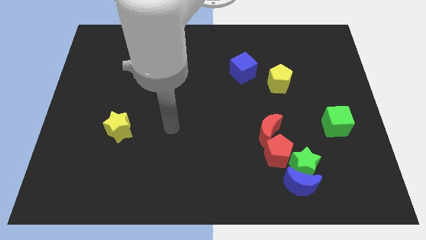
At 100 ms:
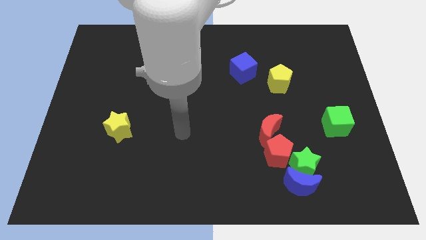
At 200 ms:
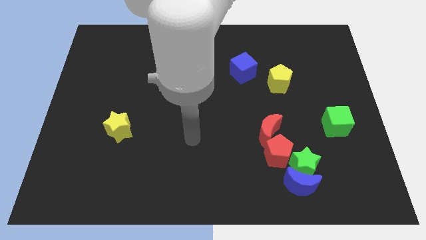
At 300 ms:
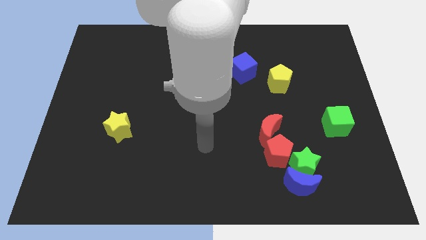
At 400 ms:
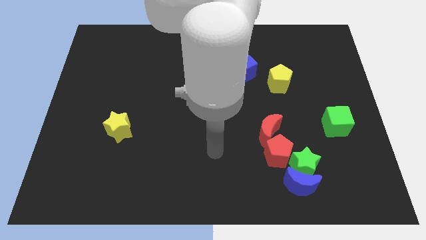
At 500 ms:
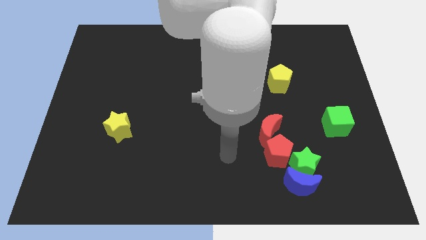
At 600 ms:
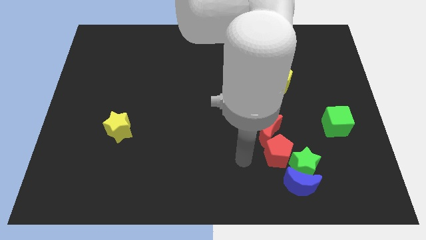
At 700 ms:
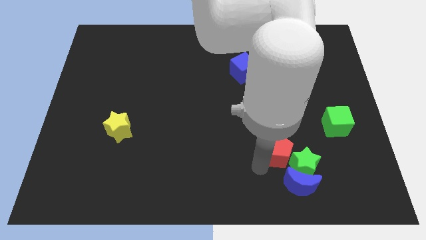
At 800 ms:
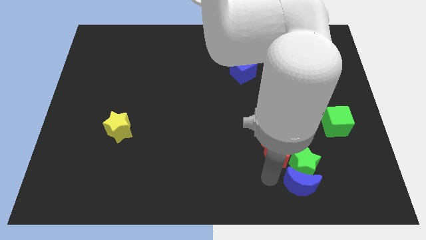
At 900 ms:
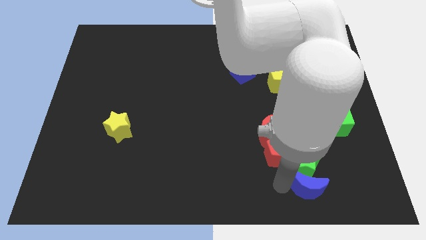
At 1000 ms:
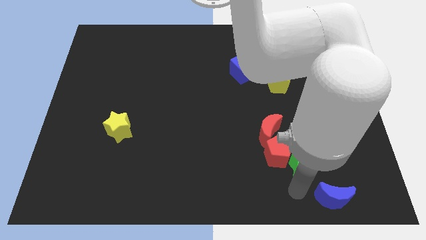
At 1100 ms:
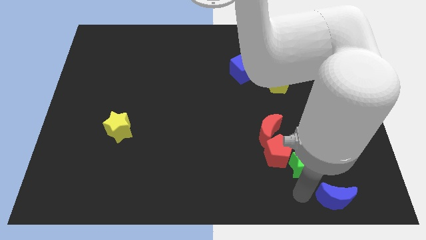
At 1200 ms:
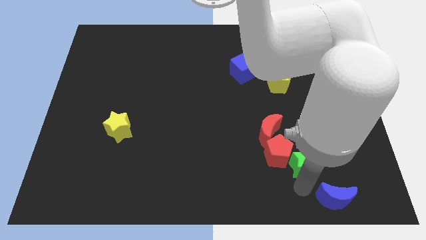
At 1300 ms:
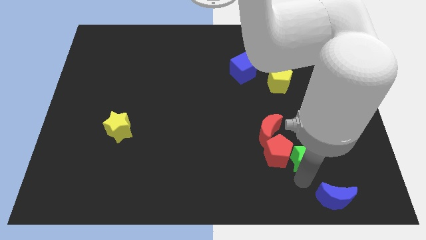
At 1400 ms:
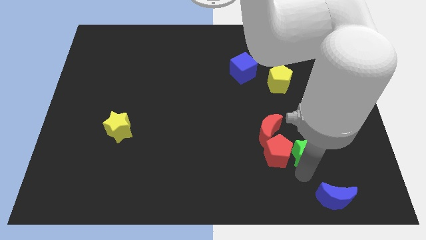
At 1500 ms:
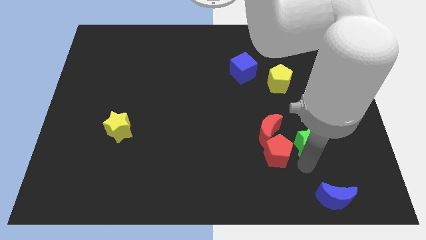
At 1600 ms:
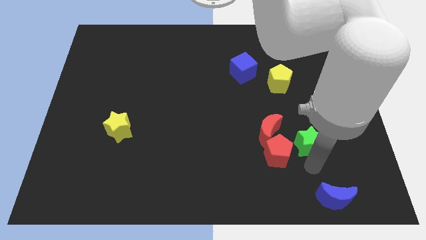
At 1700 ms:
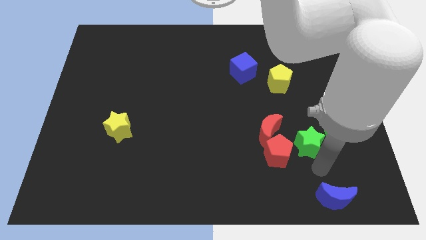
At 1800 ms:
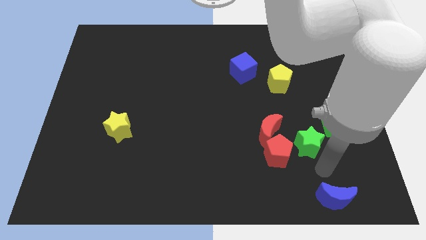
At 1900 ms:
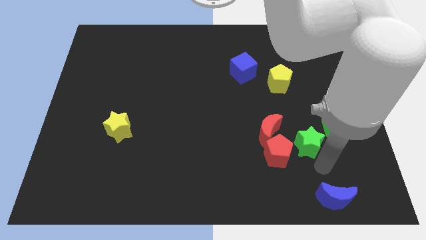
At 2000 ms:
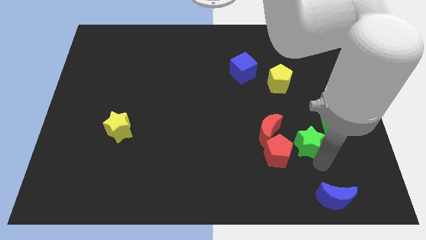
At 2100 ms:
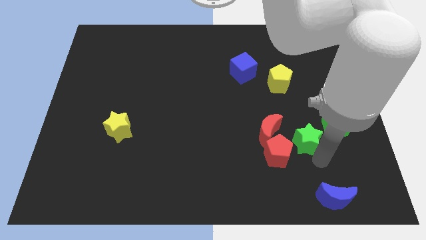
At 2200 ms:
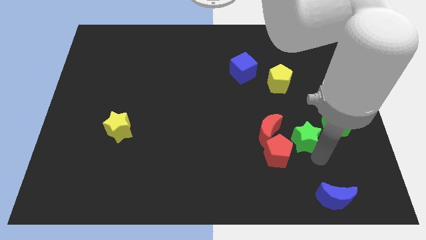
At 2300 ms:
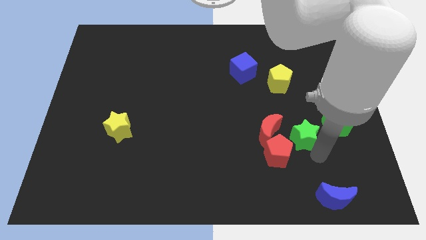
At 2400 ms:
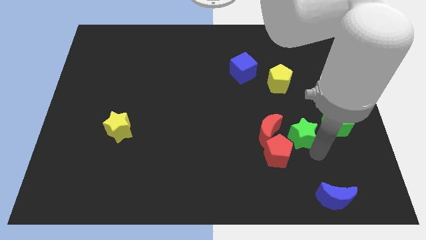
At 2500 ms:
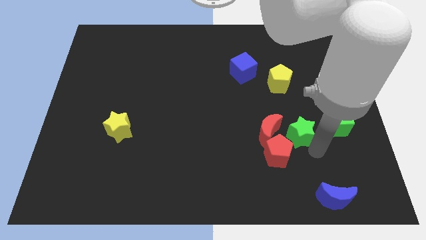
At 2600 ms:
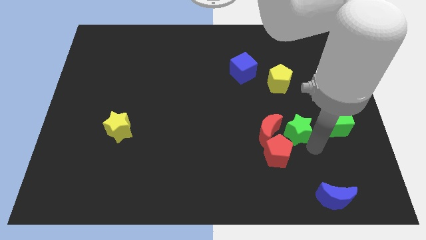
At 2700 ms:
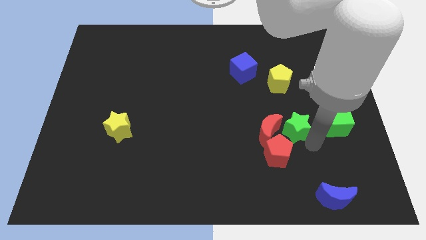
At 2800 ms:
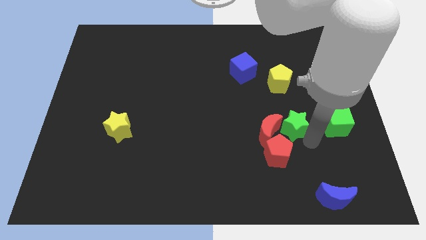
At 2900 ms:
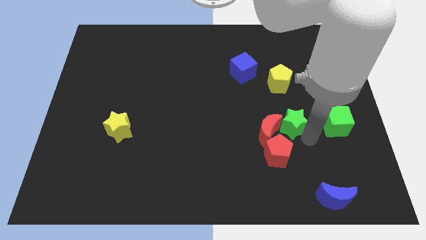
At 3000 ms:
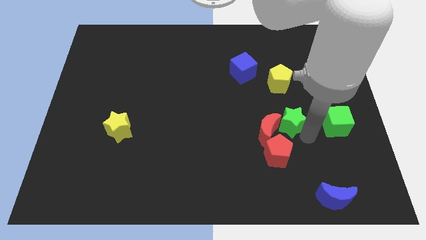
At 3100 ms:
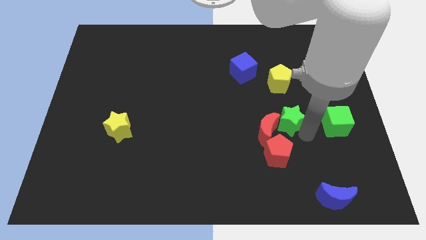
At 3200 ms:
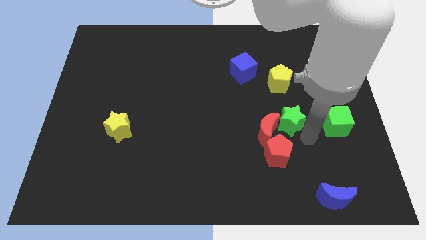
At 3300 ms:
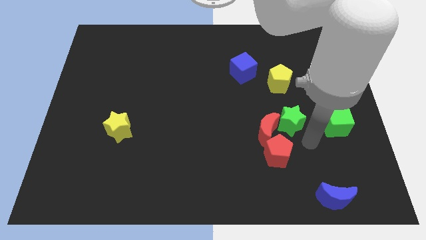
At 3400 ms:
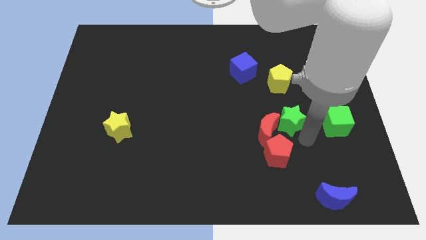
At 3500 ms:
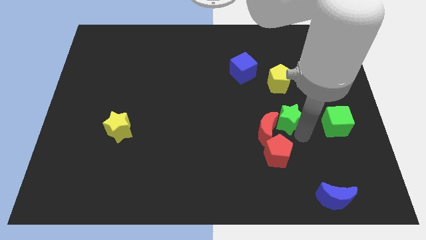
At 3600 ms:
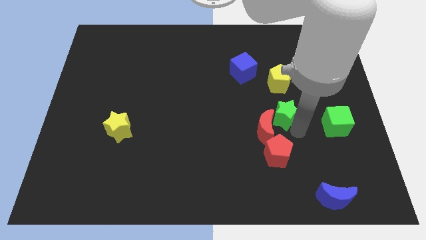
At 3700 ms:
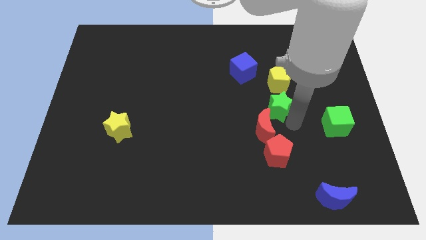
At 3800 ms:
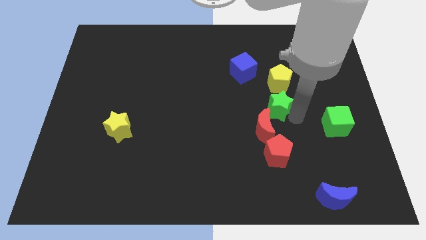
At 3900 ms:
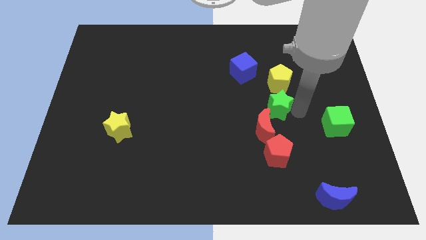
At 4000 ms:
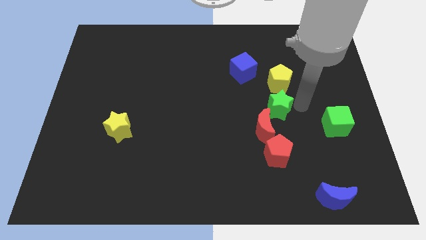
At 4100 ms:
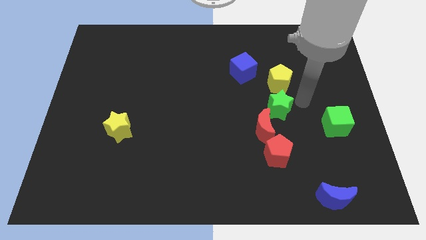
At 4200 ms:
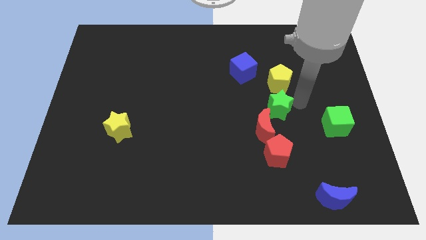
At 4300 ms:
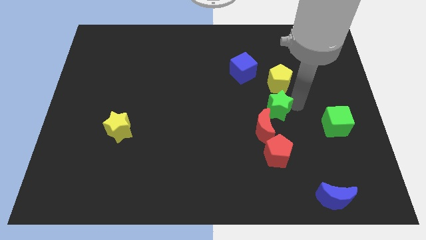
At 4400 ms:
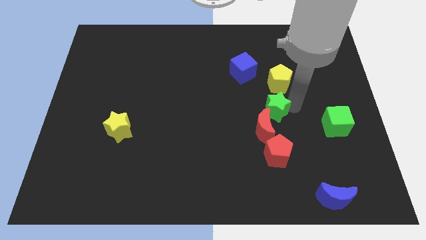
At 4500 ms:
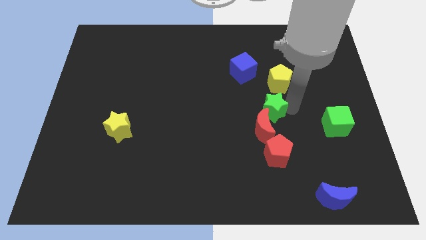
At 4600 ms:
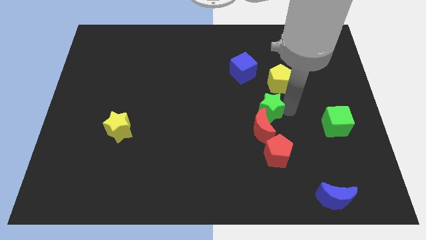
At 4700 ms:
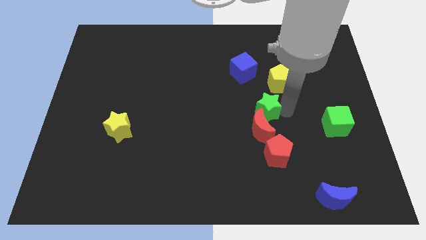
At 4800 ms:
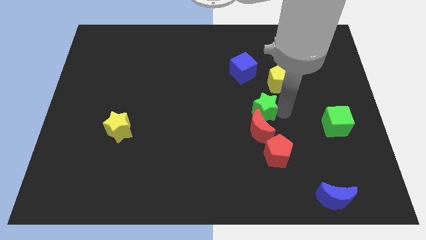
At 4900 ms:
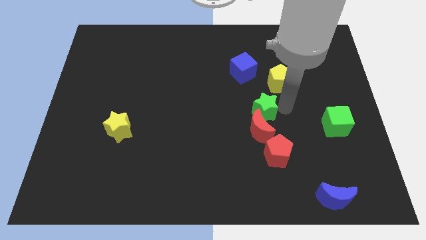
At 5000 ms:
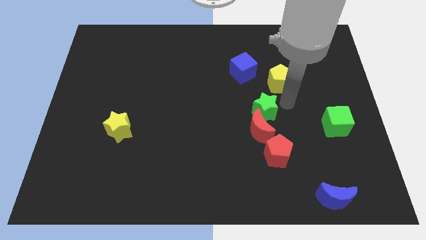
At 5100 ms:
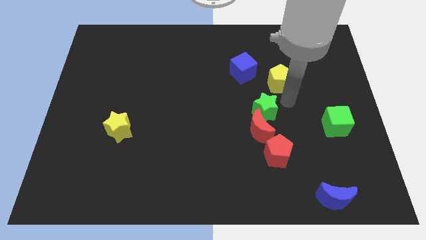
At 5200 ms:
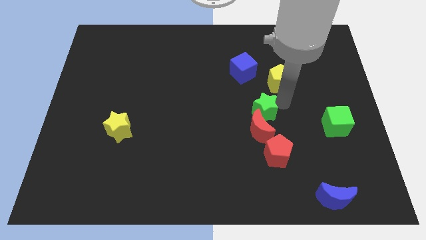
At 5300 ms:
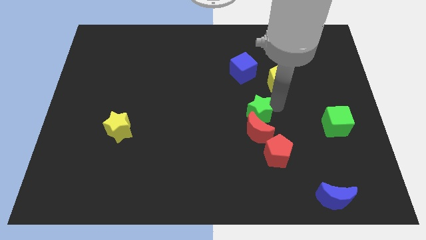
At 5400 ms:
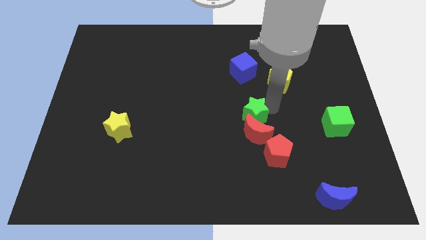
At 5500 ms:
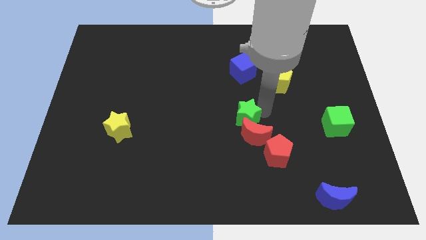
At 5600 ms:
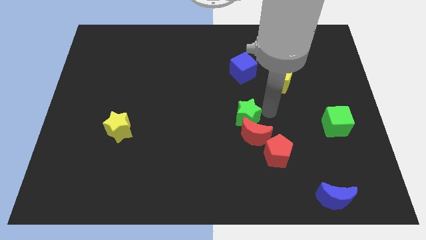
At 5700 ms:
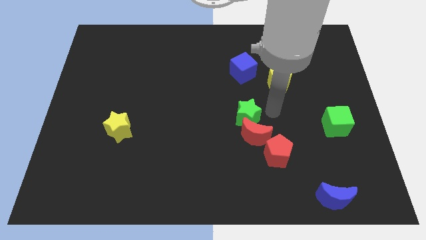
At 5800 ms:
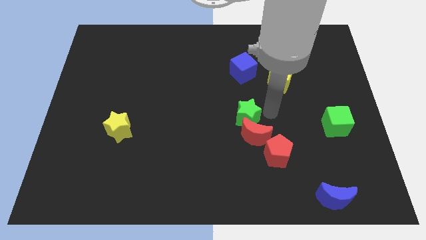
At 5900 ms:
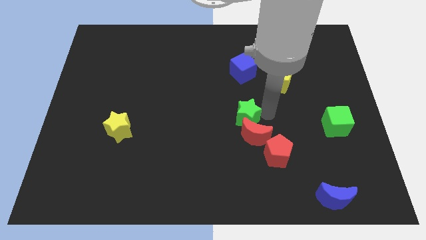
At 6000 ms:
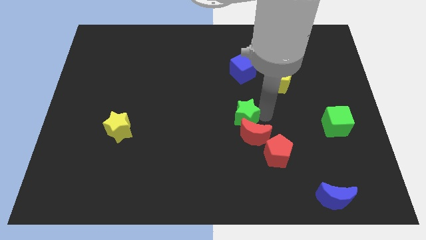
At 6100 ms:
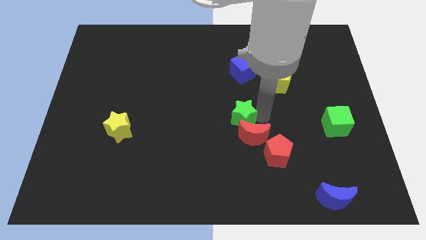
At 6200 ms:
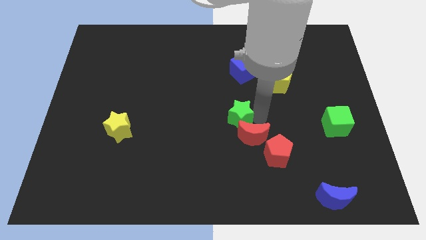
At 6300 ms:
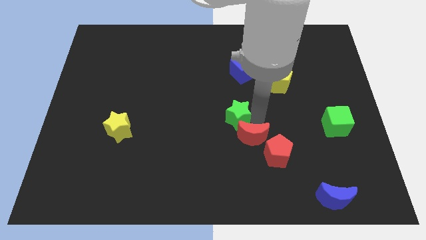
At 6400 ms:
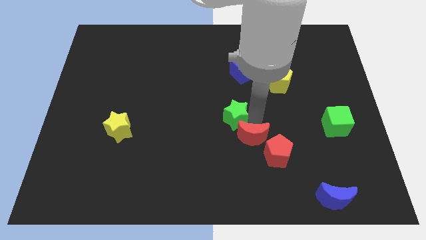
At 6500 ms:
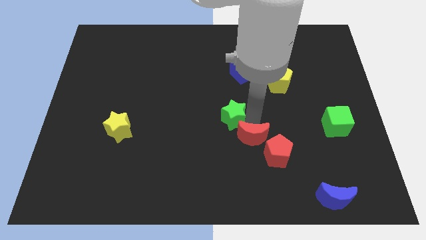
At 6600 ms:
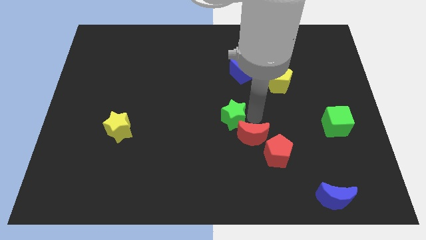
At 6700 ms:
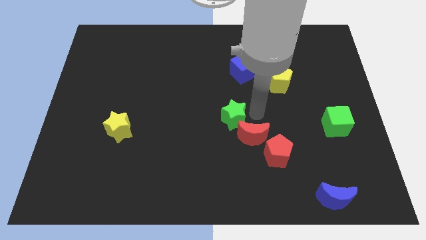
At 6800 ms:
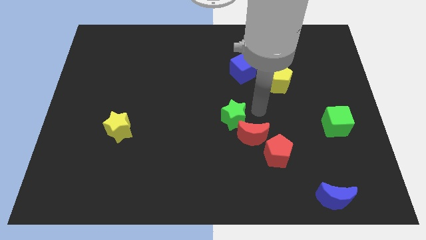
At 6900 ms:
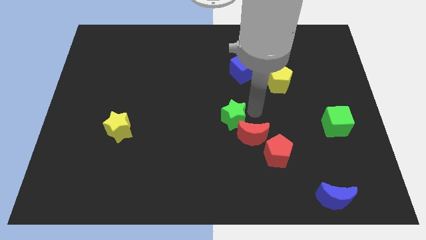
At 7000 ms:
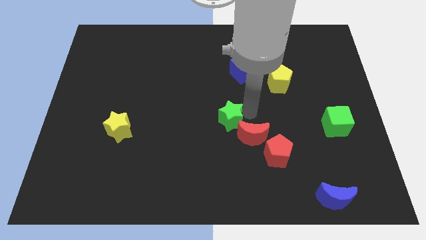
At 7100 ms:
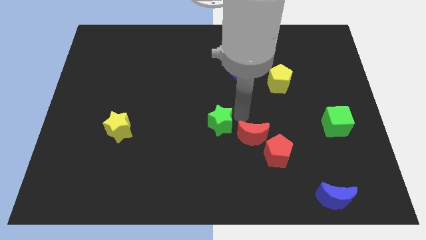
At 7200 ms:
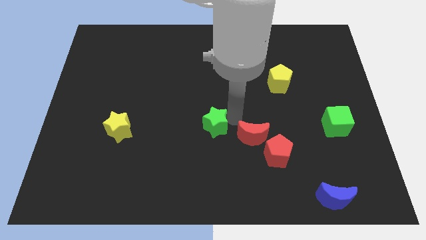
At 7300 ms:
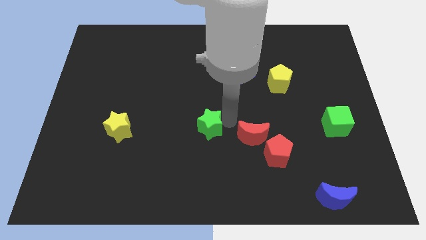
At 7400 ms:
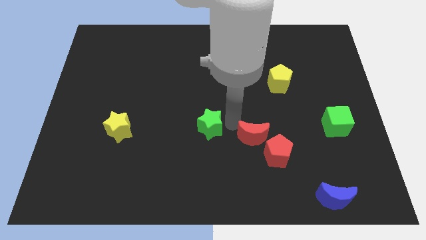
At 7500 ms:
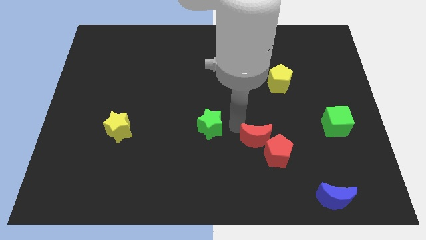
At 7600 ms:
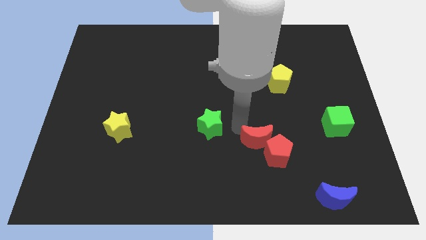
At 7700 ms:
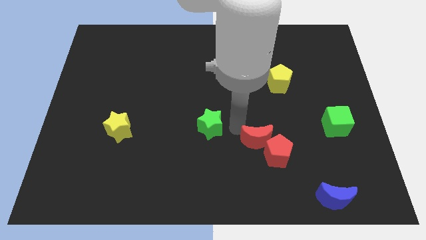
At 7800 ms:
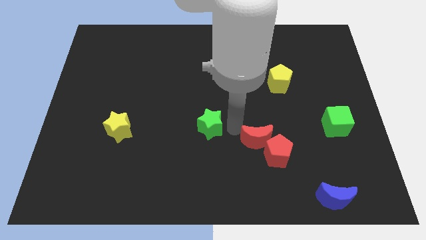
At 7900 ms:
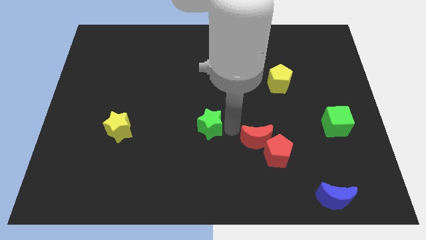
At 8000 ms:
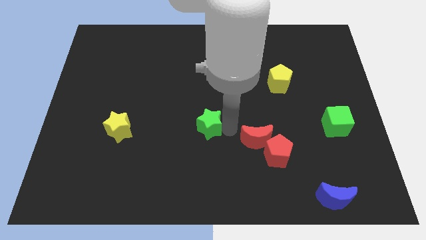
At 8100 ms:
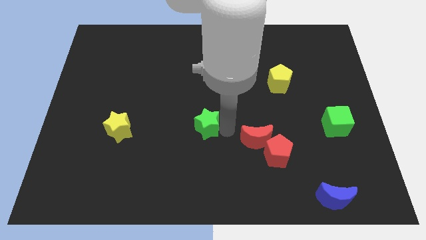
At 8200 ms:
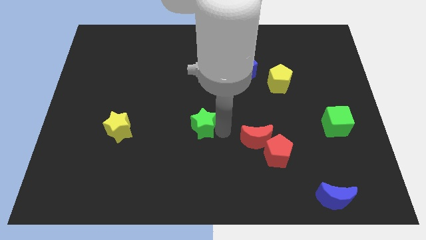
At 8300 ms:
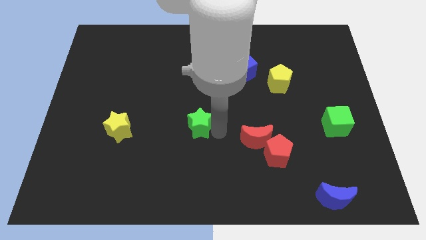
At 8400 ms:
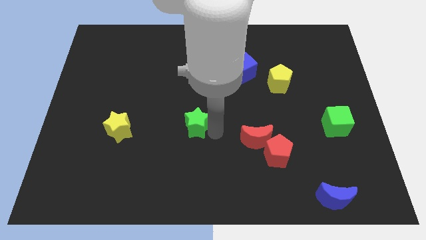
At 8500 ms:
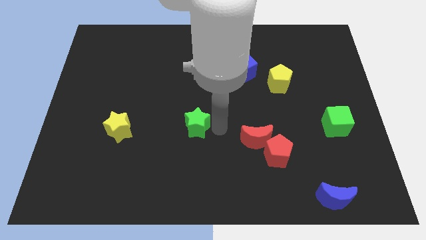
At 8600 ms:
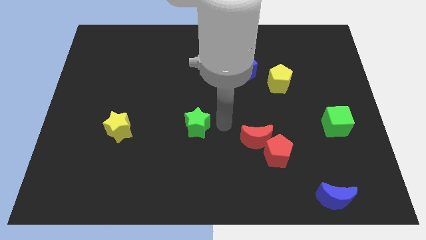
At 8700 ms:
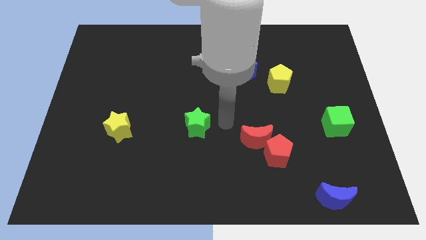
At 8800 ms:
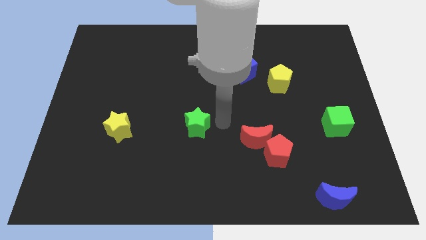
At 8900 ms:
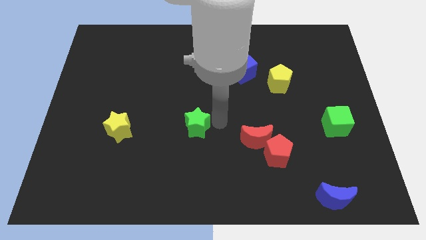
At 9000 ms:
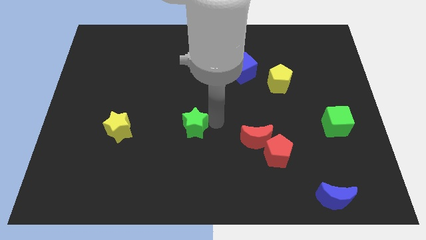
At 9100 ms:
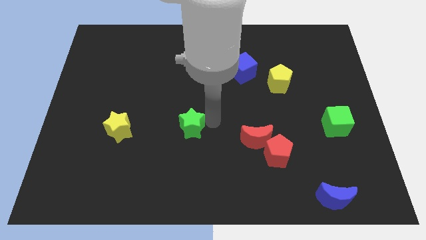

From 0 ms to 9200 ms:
push the green star to the right side of the yellow star
